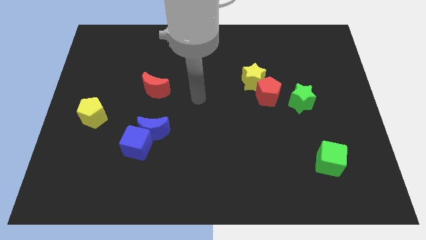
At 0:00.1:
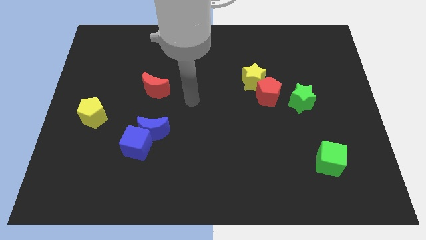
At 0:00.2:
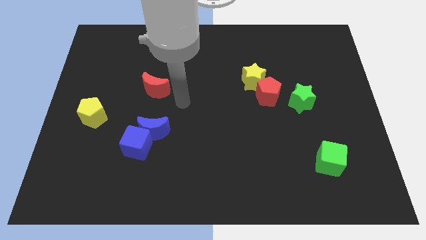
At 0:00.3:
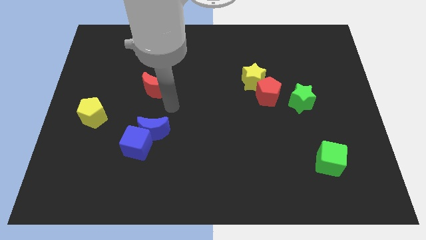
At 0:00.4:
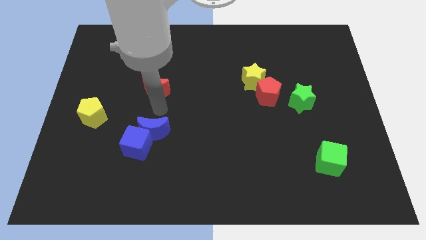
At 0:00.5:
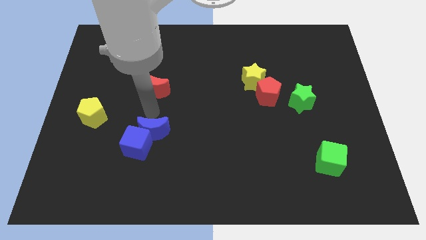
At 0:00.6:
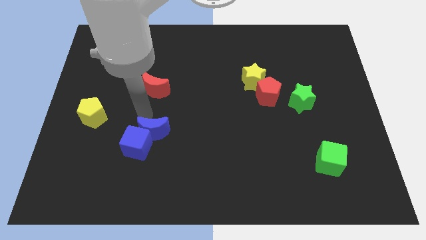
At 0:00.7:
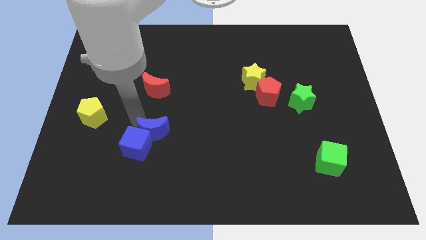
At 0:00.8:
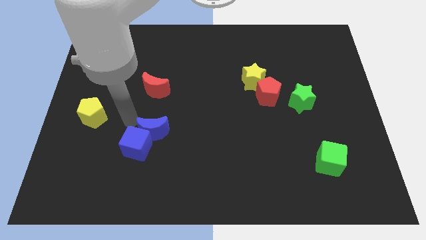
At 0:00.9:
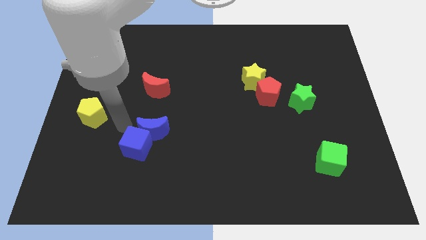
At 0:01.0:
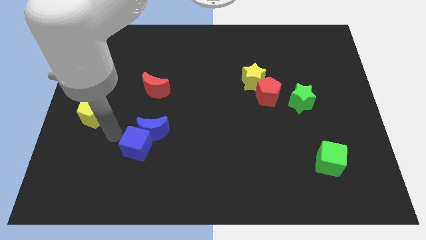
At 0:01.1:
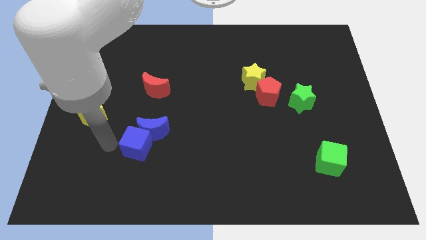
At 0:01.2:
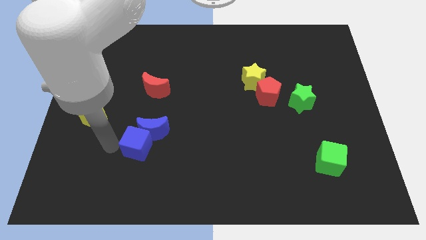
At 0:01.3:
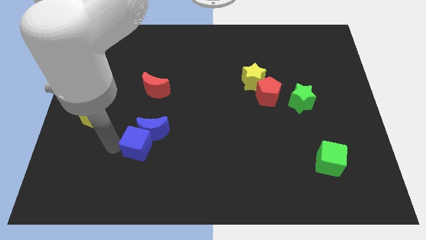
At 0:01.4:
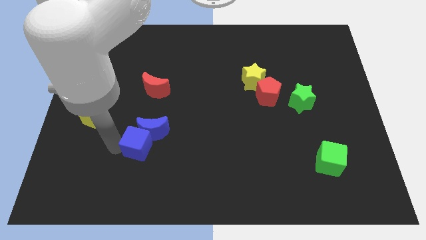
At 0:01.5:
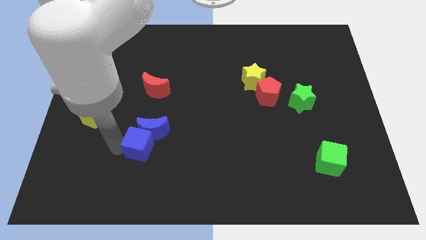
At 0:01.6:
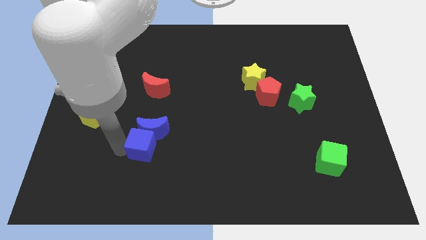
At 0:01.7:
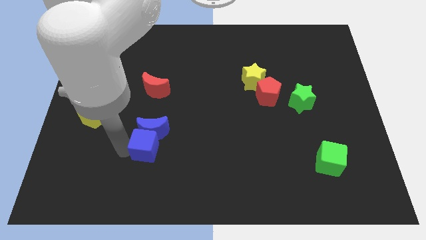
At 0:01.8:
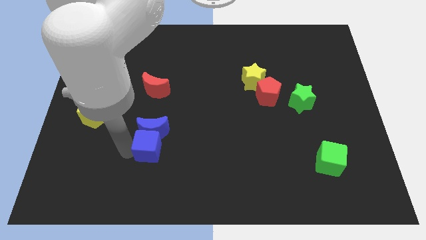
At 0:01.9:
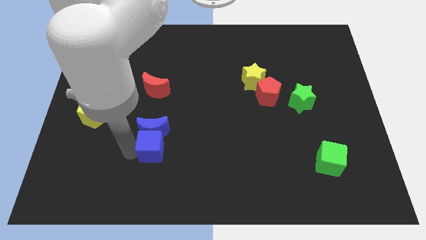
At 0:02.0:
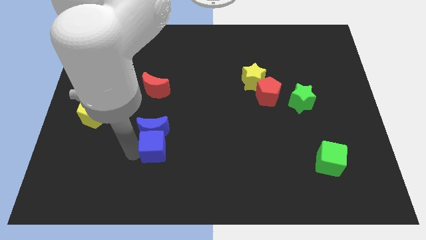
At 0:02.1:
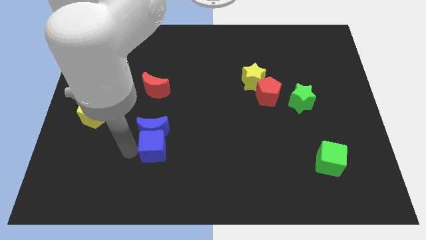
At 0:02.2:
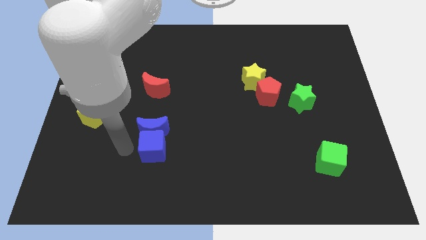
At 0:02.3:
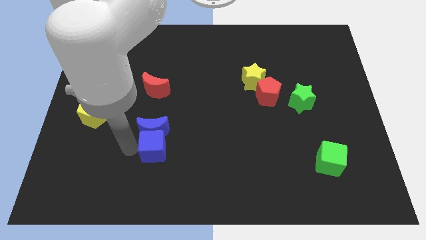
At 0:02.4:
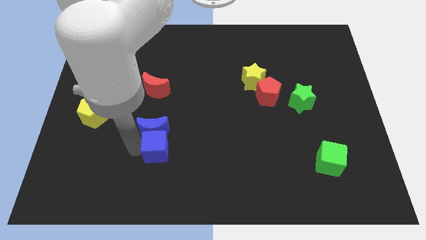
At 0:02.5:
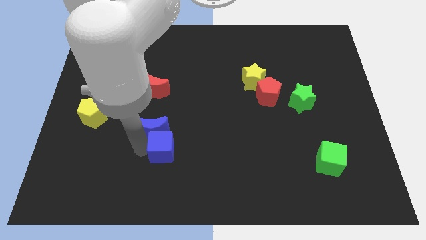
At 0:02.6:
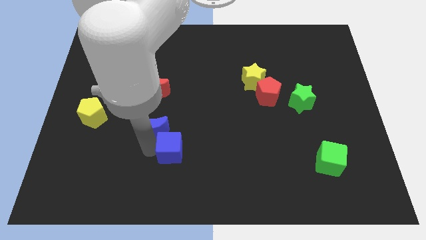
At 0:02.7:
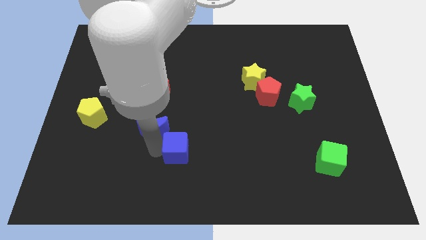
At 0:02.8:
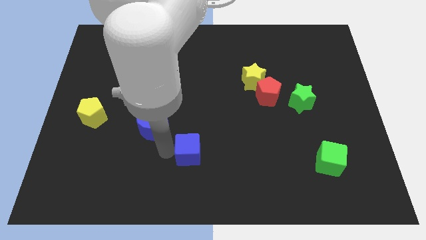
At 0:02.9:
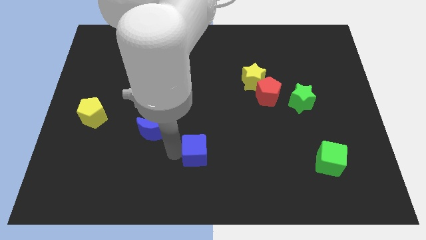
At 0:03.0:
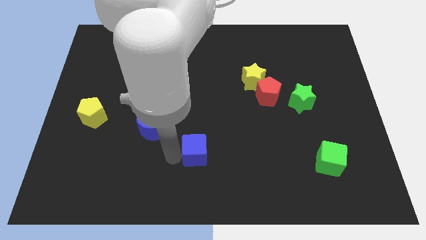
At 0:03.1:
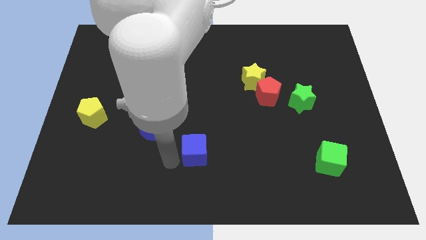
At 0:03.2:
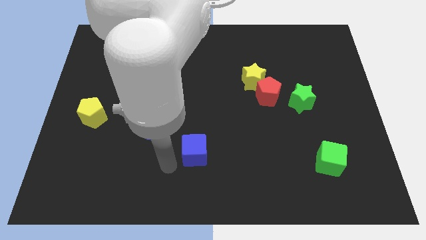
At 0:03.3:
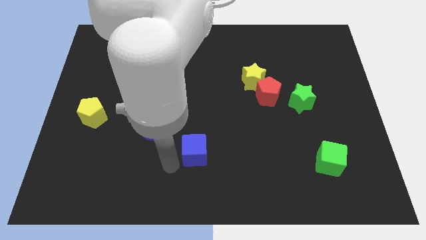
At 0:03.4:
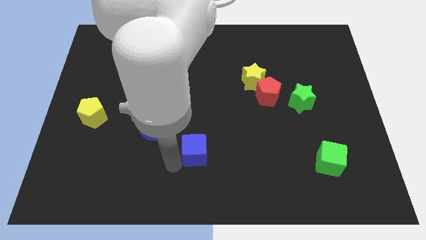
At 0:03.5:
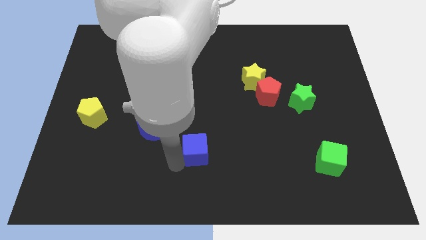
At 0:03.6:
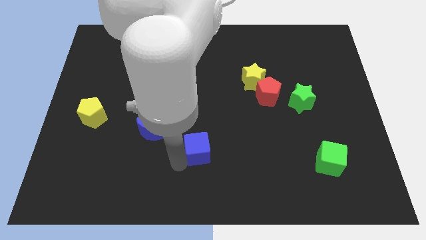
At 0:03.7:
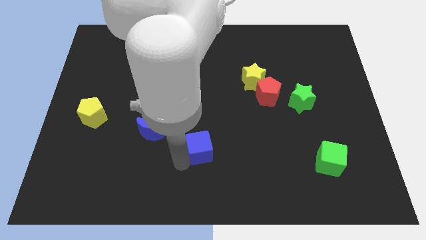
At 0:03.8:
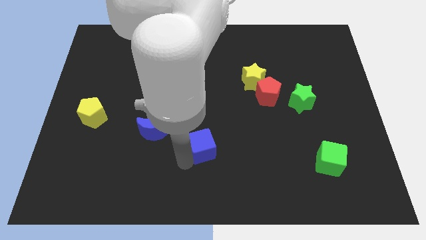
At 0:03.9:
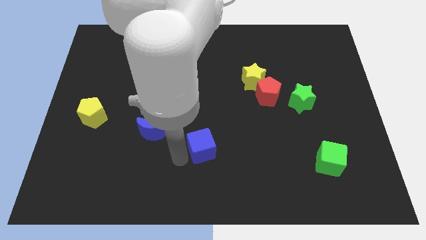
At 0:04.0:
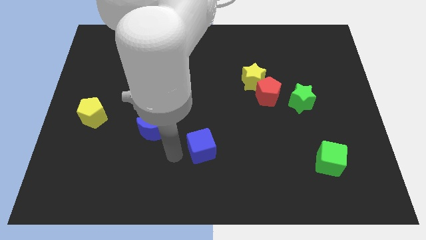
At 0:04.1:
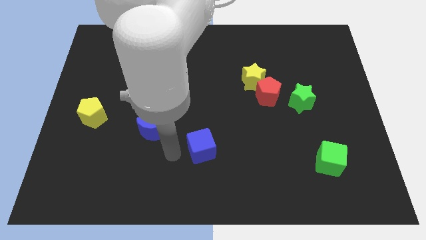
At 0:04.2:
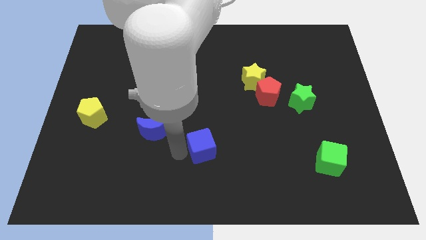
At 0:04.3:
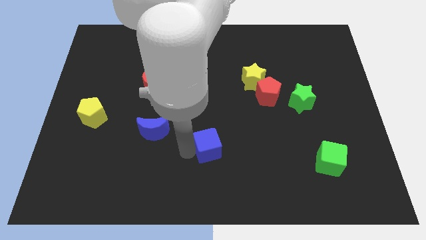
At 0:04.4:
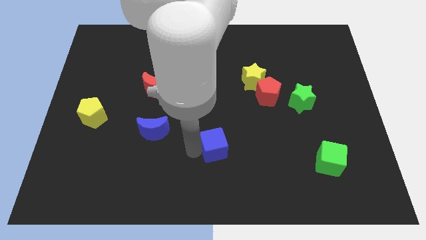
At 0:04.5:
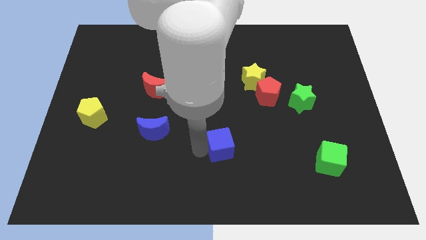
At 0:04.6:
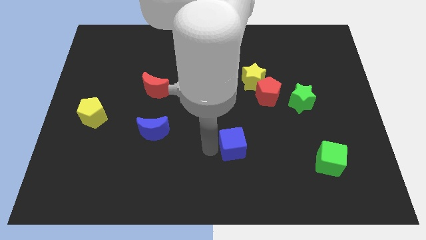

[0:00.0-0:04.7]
move the blue cube right

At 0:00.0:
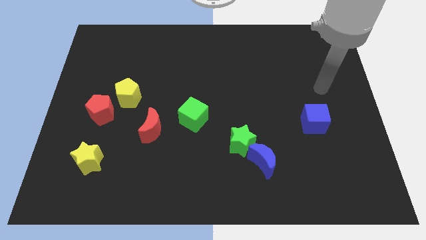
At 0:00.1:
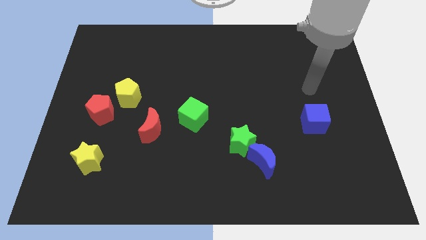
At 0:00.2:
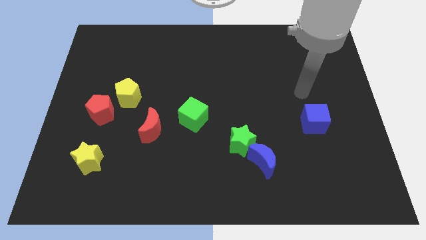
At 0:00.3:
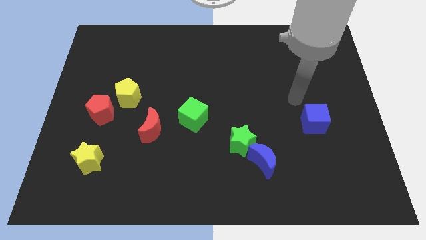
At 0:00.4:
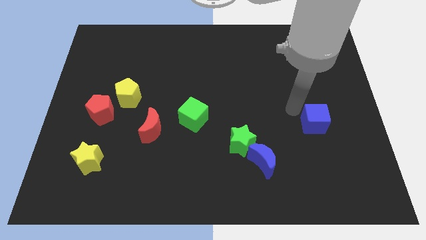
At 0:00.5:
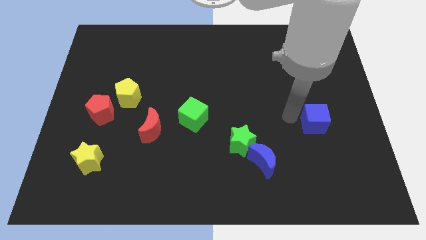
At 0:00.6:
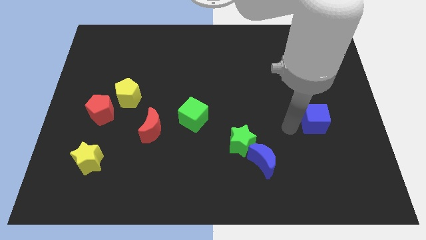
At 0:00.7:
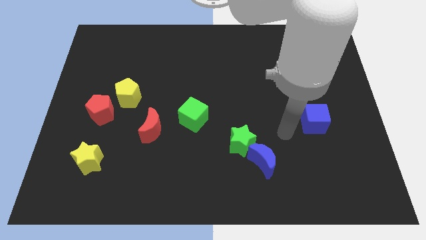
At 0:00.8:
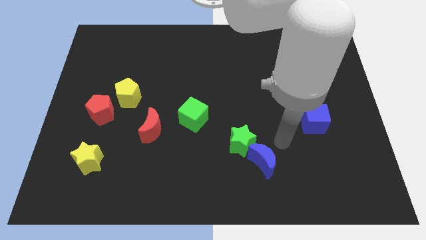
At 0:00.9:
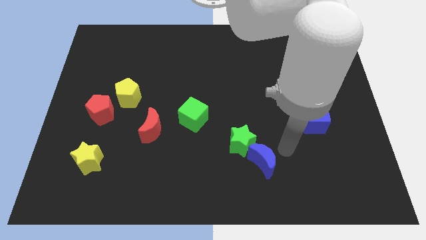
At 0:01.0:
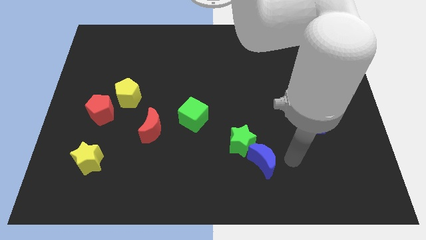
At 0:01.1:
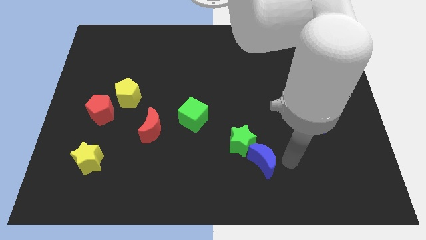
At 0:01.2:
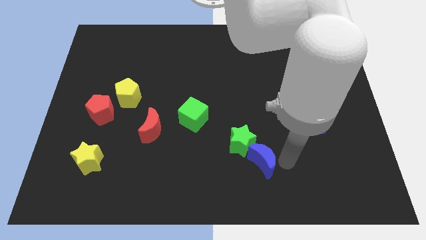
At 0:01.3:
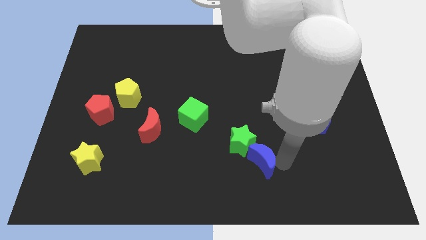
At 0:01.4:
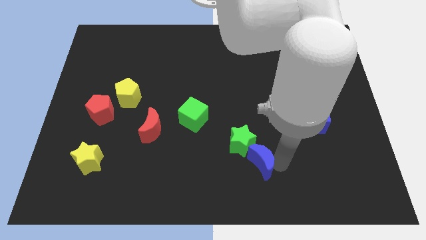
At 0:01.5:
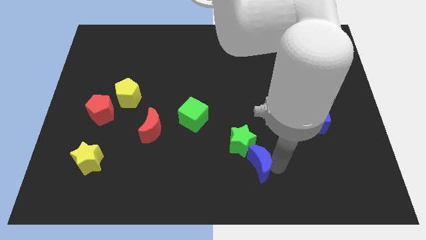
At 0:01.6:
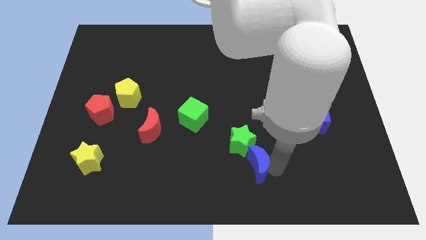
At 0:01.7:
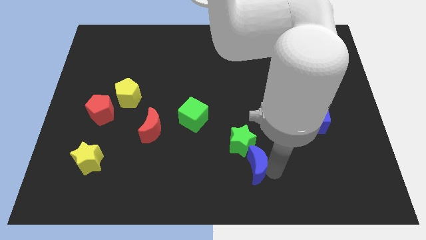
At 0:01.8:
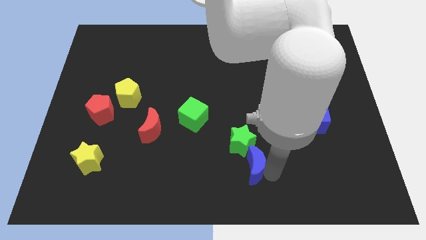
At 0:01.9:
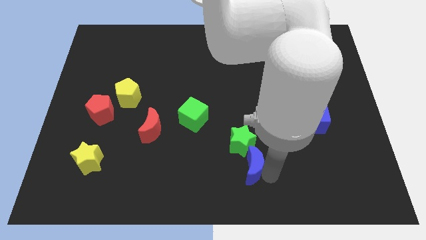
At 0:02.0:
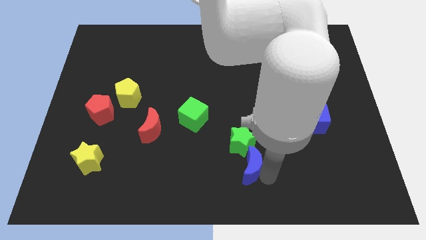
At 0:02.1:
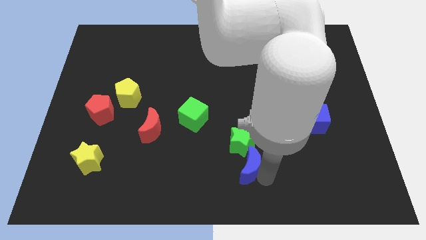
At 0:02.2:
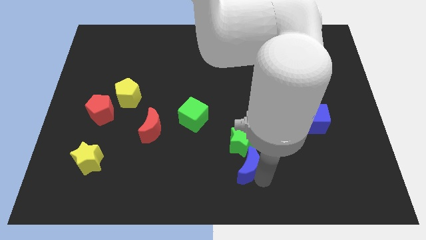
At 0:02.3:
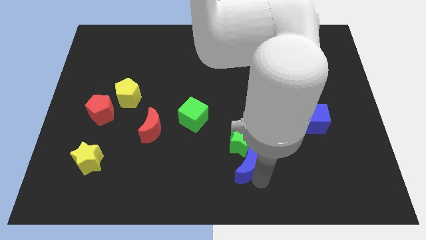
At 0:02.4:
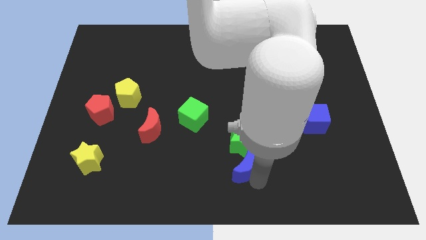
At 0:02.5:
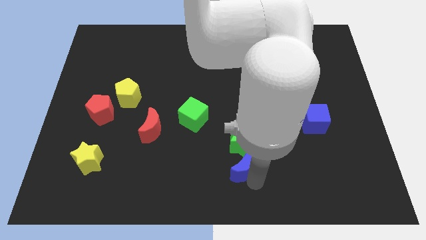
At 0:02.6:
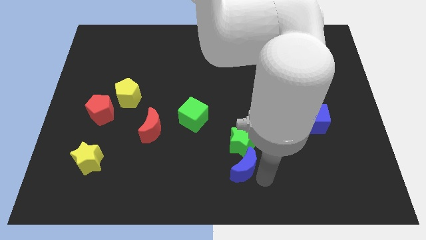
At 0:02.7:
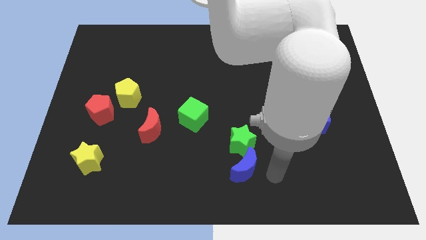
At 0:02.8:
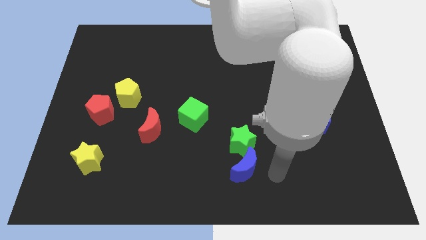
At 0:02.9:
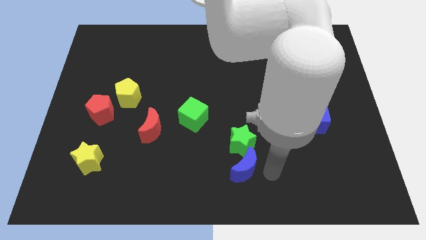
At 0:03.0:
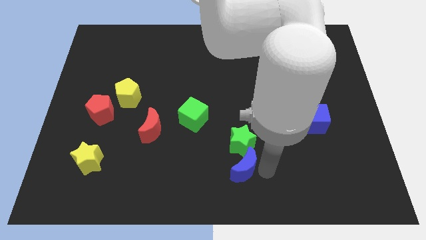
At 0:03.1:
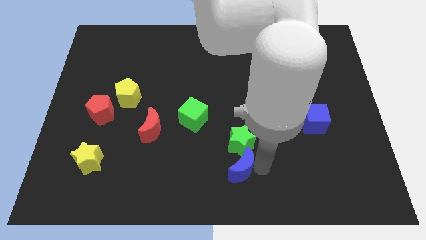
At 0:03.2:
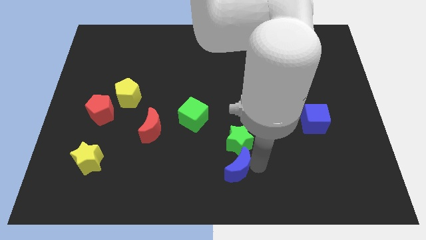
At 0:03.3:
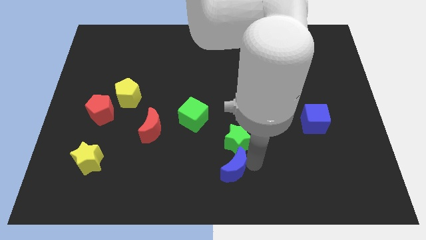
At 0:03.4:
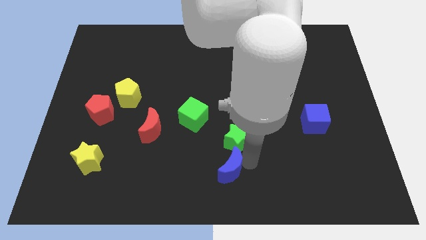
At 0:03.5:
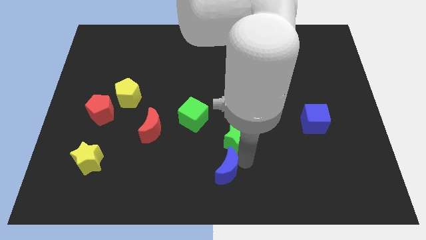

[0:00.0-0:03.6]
slightly push the blue moon left

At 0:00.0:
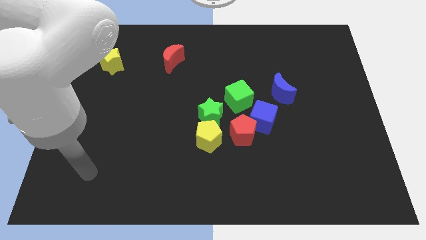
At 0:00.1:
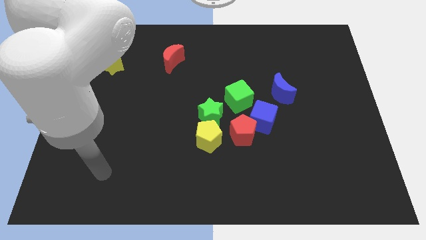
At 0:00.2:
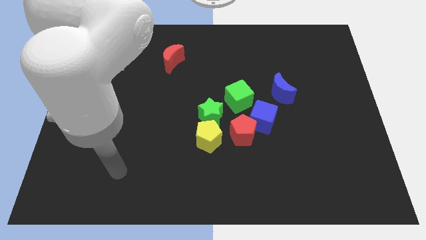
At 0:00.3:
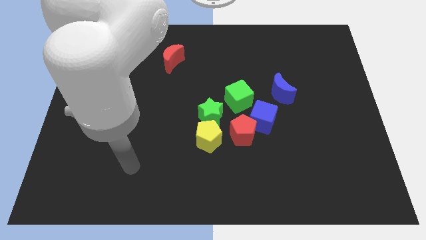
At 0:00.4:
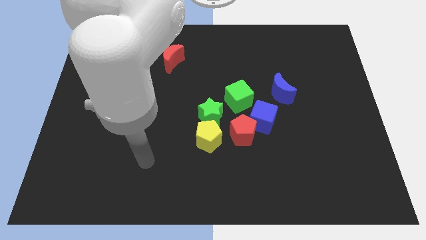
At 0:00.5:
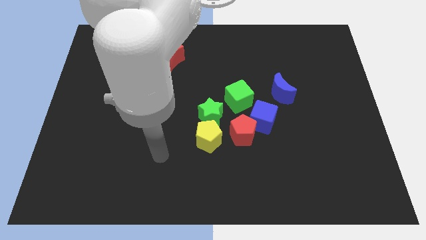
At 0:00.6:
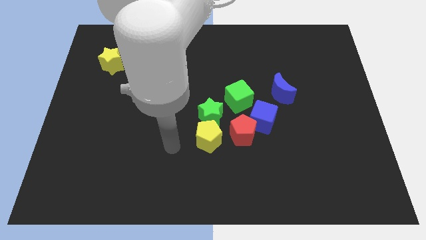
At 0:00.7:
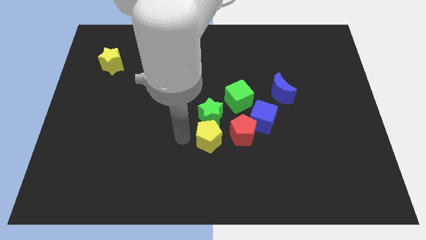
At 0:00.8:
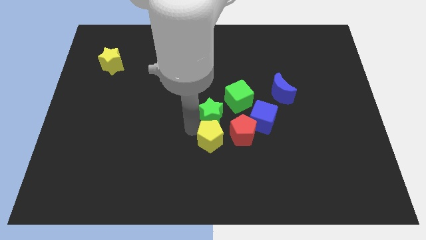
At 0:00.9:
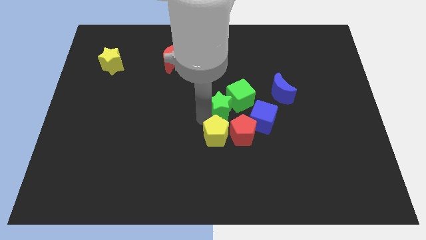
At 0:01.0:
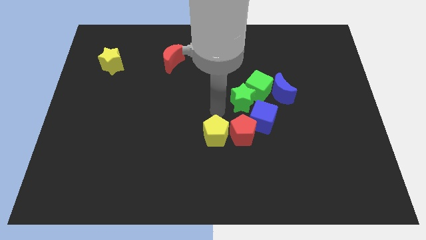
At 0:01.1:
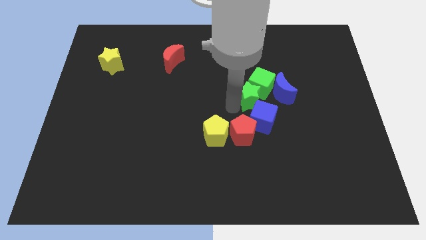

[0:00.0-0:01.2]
slightly slide the green cube diagonally up and to the right
